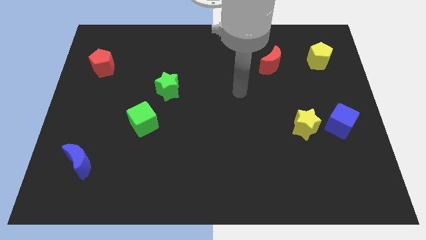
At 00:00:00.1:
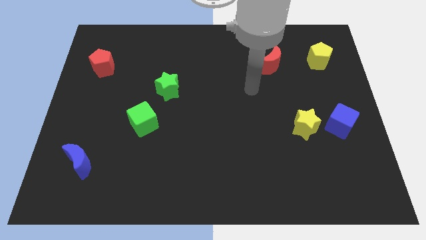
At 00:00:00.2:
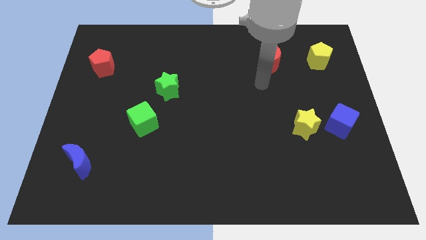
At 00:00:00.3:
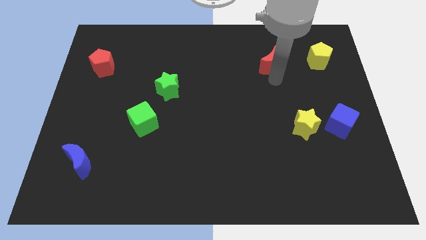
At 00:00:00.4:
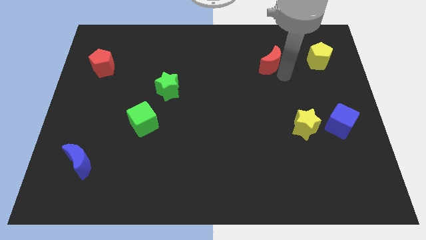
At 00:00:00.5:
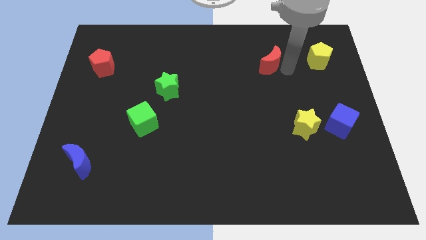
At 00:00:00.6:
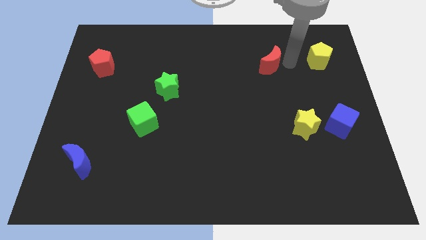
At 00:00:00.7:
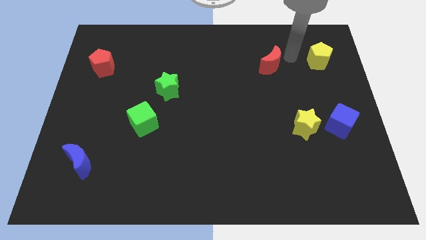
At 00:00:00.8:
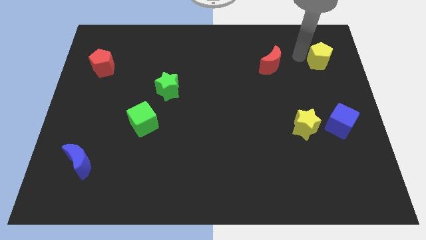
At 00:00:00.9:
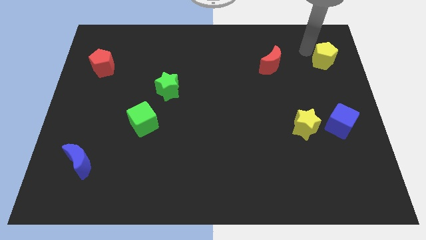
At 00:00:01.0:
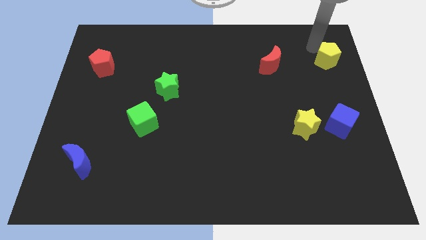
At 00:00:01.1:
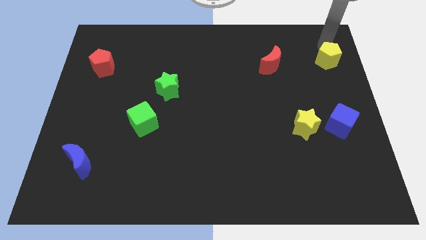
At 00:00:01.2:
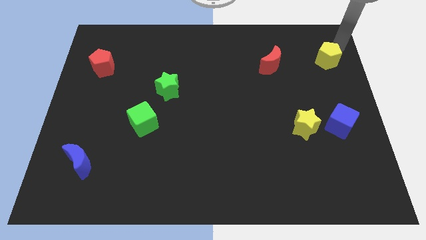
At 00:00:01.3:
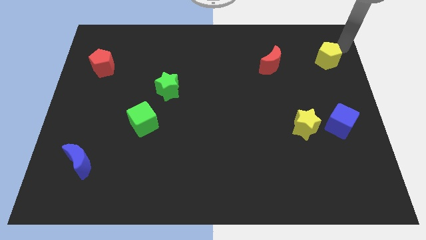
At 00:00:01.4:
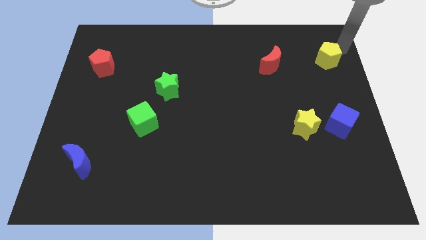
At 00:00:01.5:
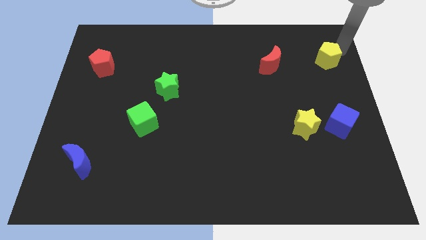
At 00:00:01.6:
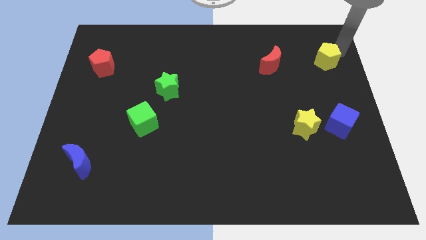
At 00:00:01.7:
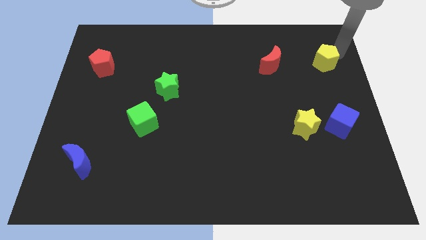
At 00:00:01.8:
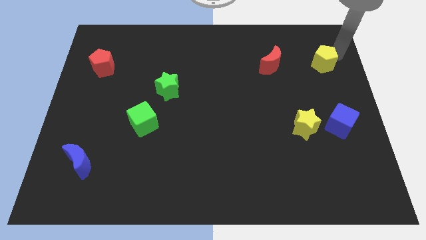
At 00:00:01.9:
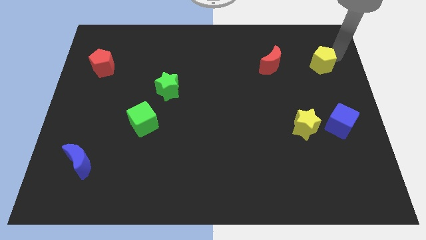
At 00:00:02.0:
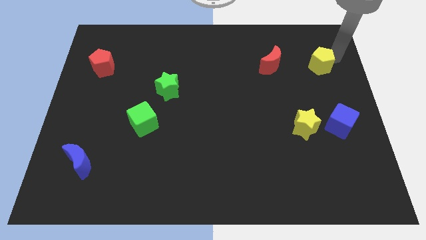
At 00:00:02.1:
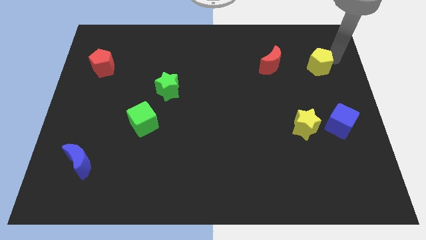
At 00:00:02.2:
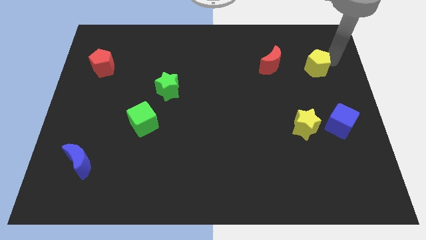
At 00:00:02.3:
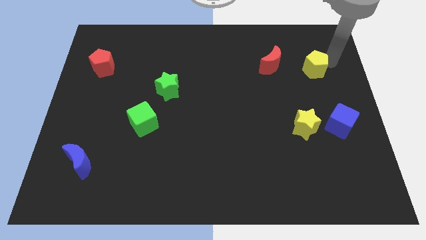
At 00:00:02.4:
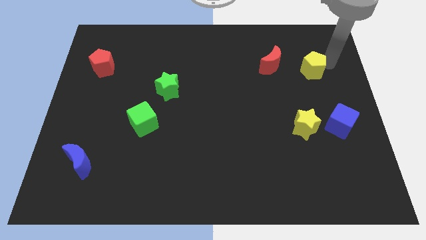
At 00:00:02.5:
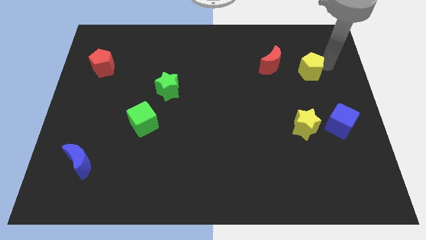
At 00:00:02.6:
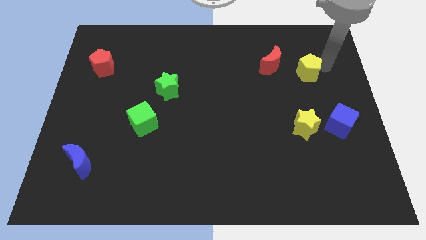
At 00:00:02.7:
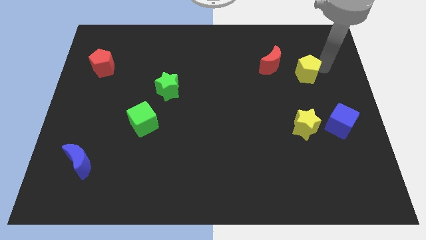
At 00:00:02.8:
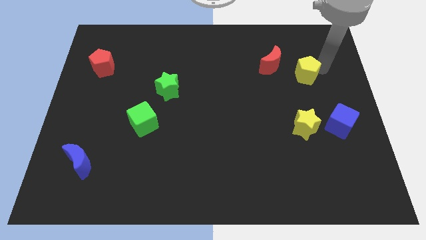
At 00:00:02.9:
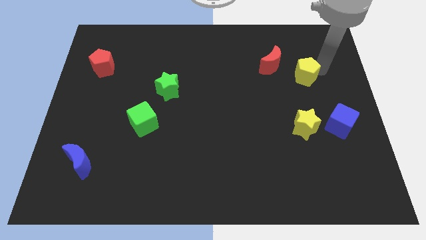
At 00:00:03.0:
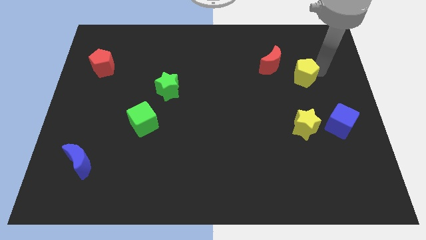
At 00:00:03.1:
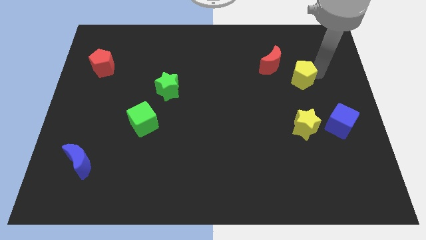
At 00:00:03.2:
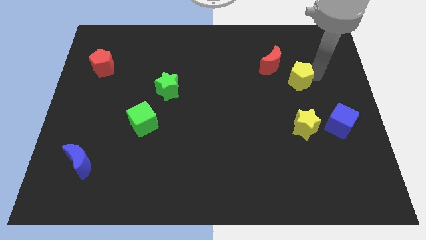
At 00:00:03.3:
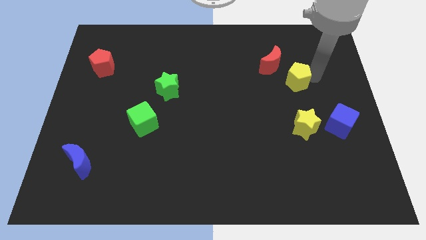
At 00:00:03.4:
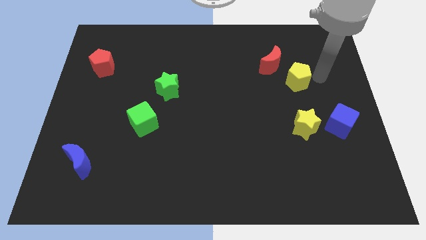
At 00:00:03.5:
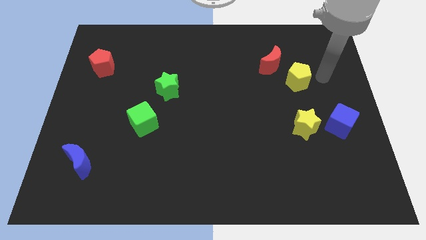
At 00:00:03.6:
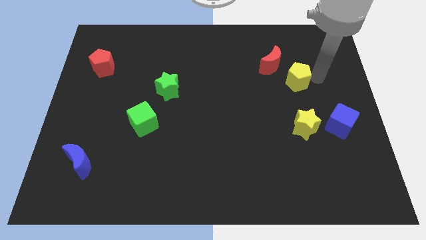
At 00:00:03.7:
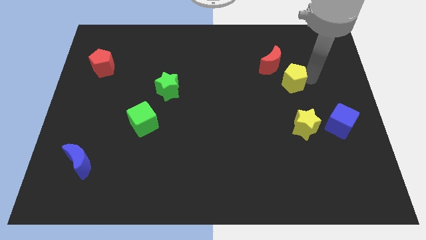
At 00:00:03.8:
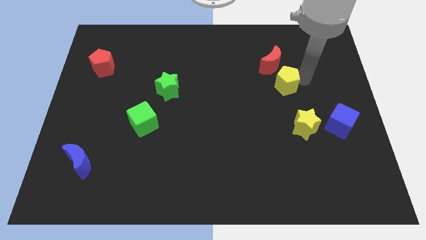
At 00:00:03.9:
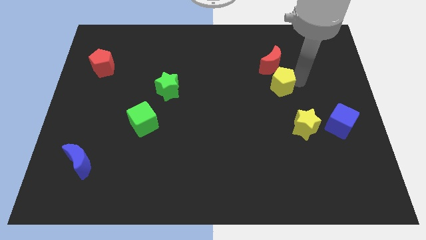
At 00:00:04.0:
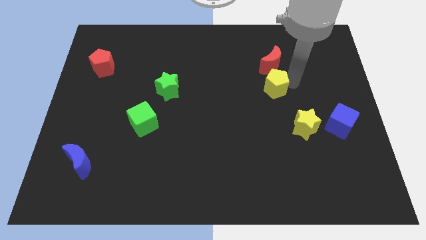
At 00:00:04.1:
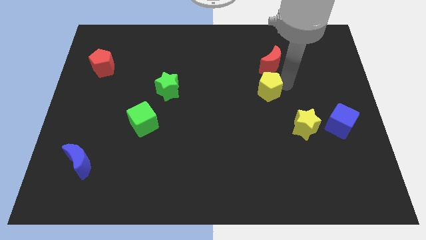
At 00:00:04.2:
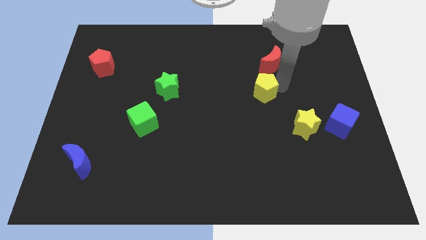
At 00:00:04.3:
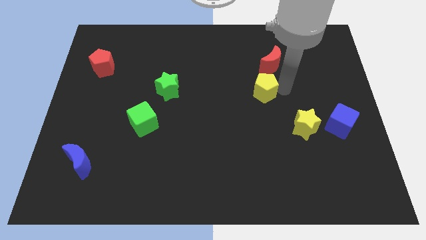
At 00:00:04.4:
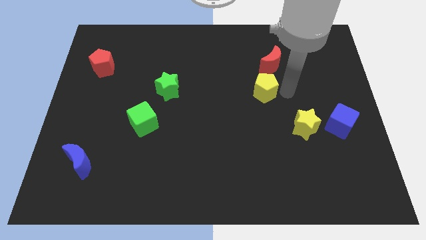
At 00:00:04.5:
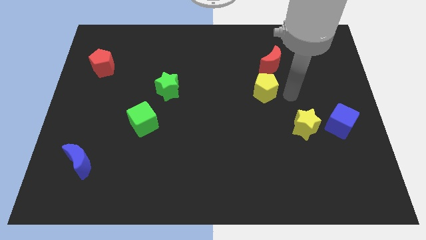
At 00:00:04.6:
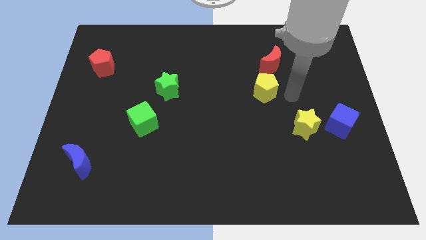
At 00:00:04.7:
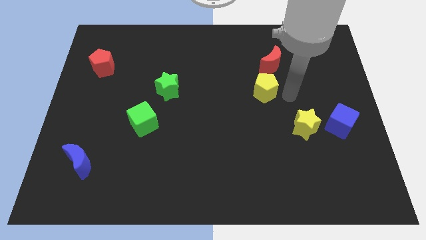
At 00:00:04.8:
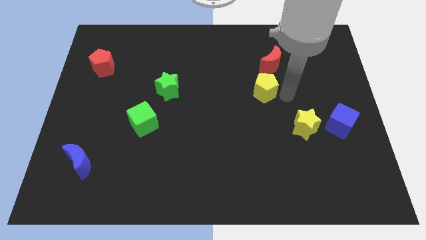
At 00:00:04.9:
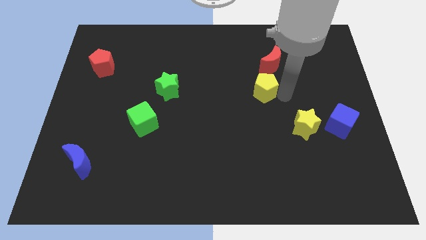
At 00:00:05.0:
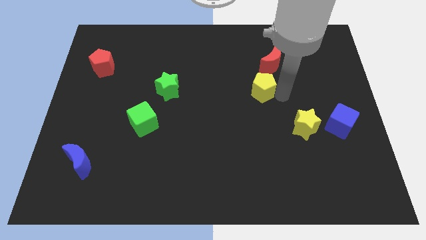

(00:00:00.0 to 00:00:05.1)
move the yellow pentagon to the middle of the board

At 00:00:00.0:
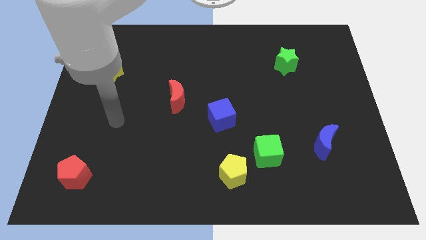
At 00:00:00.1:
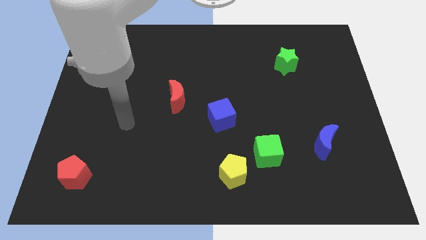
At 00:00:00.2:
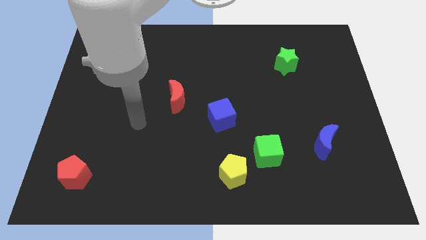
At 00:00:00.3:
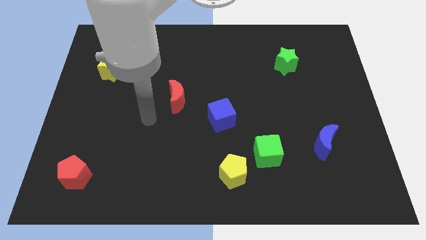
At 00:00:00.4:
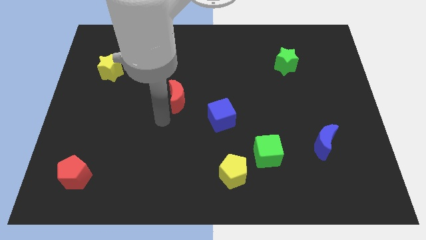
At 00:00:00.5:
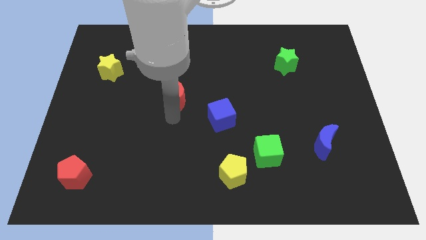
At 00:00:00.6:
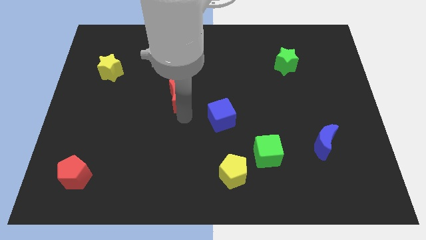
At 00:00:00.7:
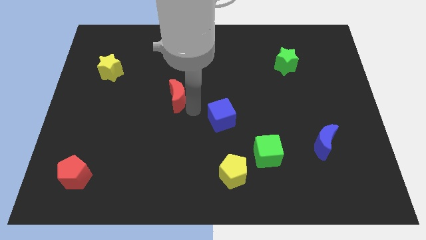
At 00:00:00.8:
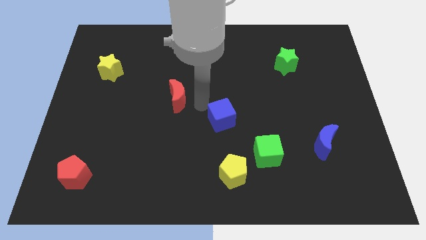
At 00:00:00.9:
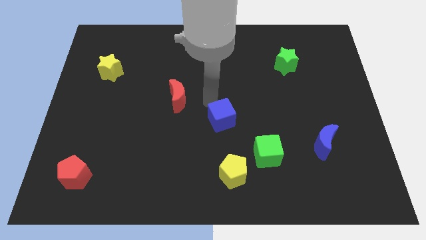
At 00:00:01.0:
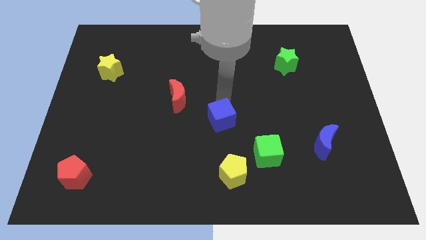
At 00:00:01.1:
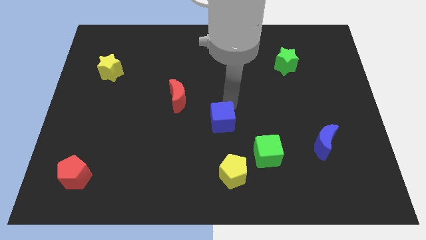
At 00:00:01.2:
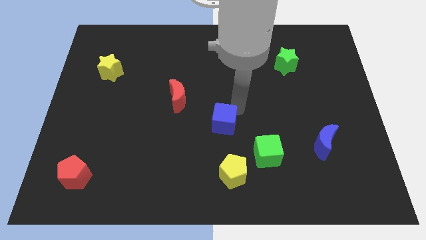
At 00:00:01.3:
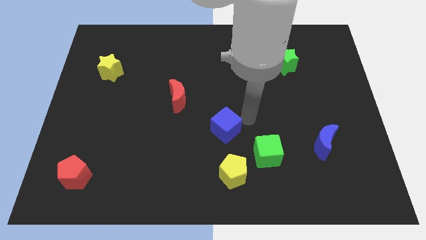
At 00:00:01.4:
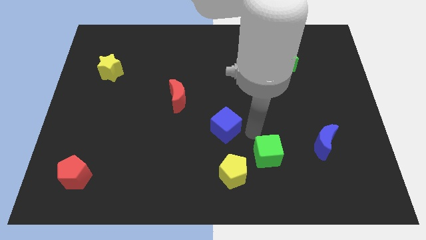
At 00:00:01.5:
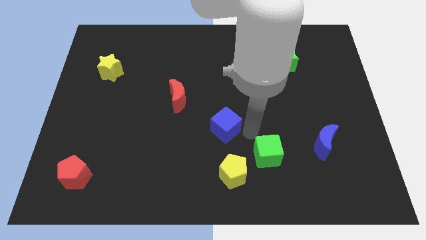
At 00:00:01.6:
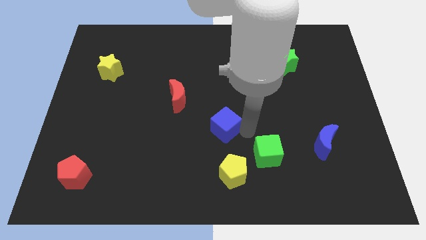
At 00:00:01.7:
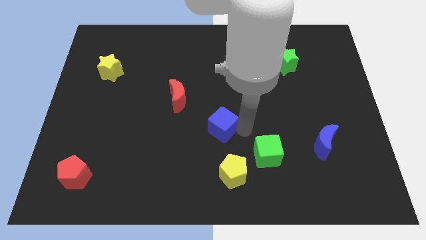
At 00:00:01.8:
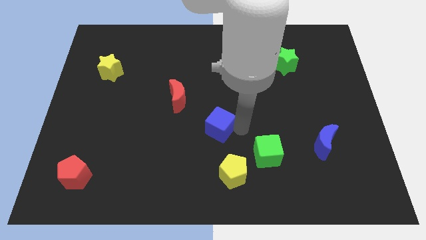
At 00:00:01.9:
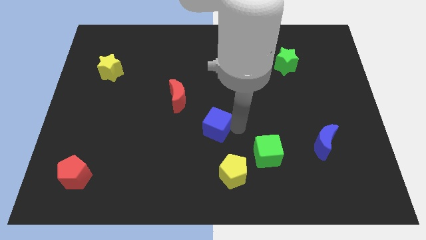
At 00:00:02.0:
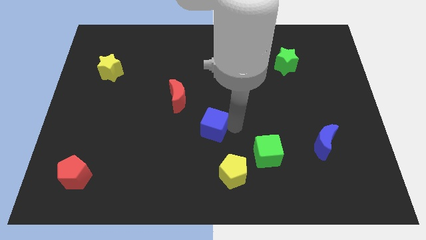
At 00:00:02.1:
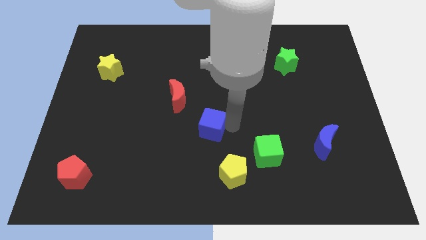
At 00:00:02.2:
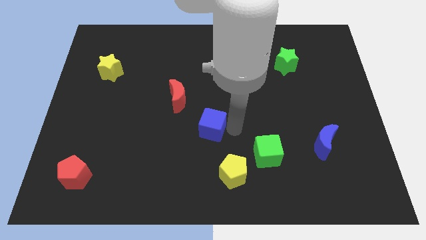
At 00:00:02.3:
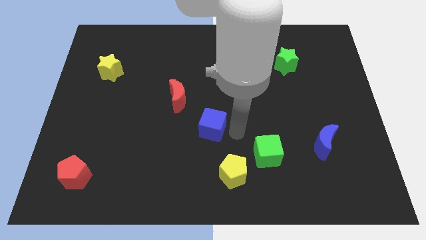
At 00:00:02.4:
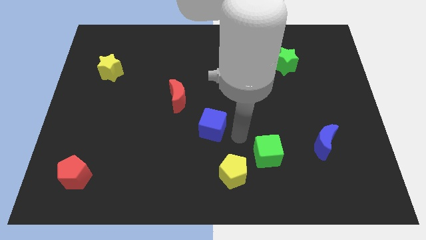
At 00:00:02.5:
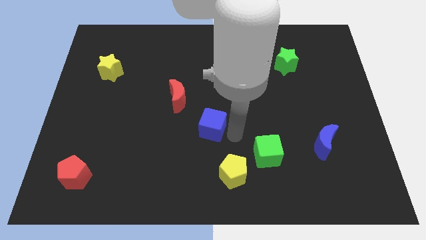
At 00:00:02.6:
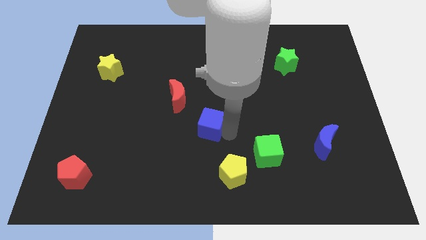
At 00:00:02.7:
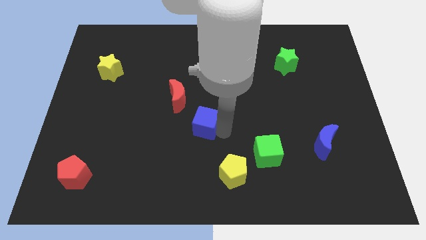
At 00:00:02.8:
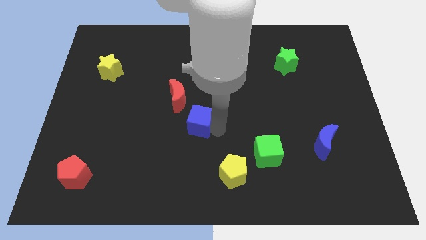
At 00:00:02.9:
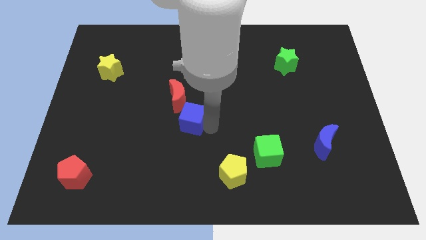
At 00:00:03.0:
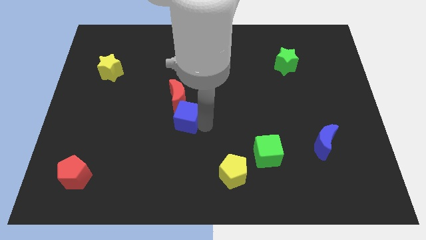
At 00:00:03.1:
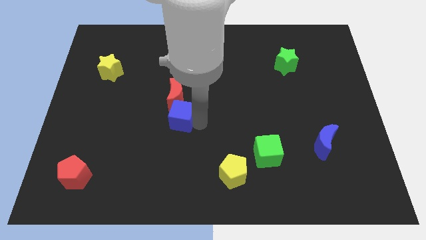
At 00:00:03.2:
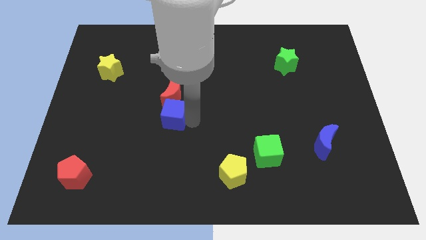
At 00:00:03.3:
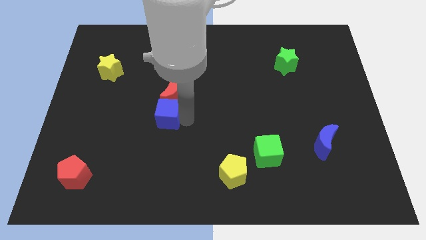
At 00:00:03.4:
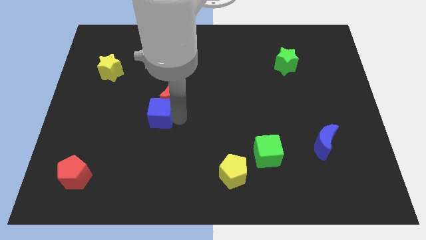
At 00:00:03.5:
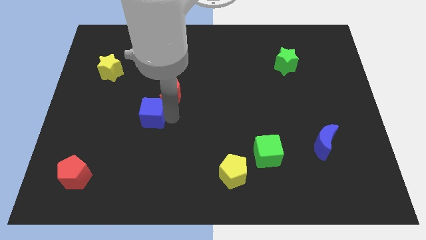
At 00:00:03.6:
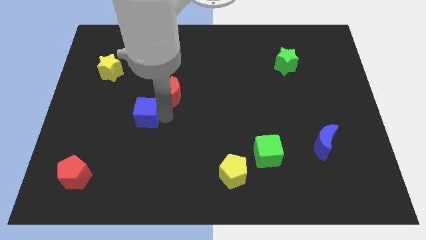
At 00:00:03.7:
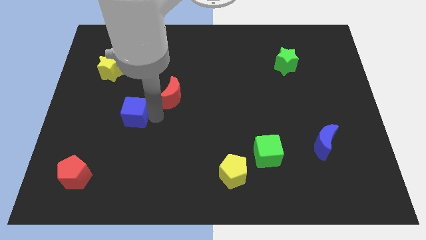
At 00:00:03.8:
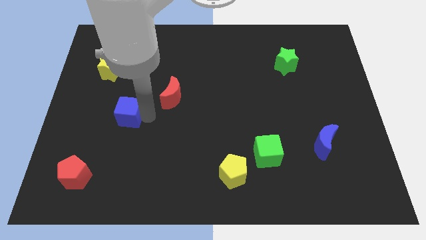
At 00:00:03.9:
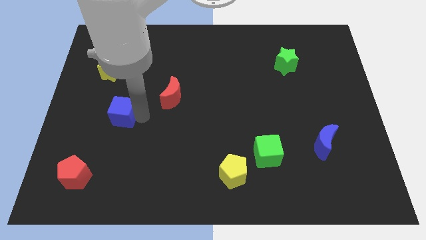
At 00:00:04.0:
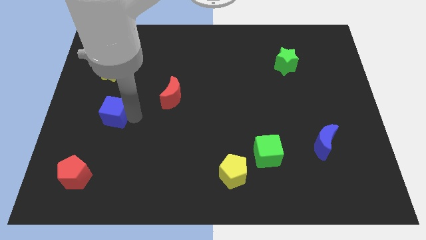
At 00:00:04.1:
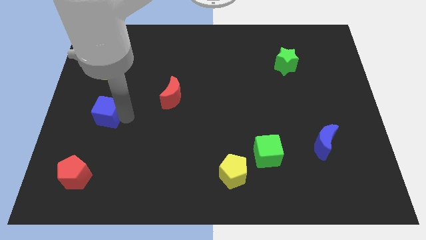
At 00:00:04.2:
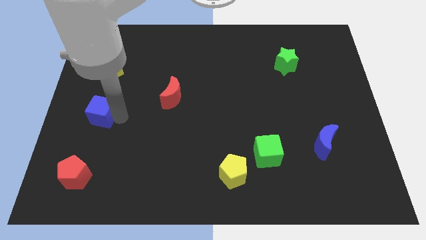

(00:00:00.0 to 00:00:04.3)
move the blue cube to the center left
